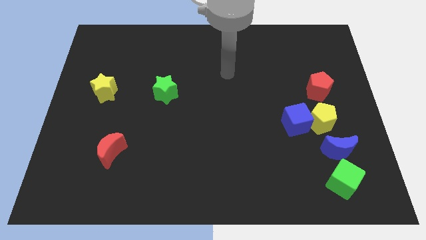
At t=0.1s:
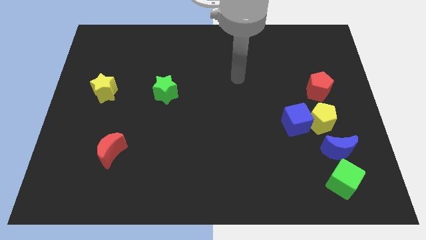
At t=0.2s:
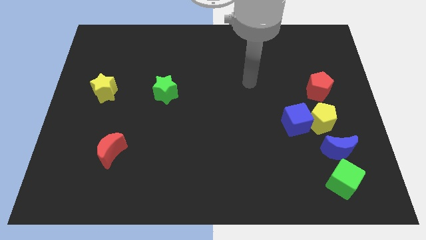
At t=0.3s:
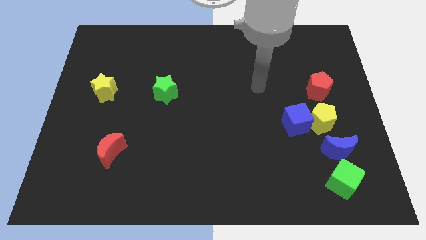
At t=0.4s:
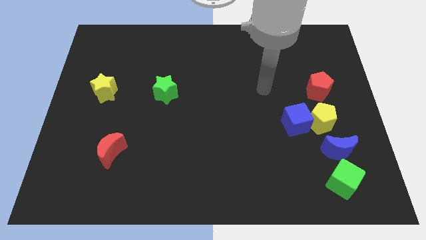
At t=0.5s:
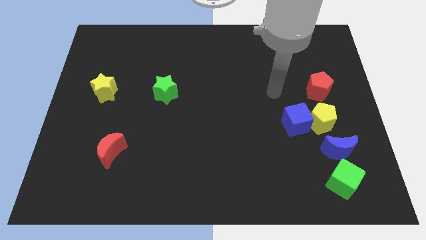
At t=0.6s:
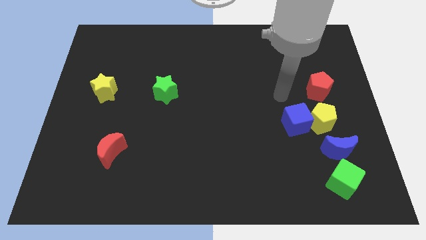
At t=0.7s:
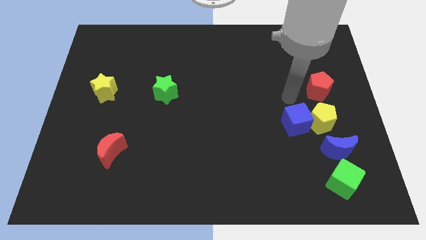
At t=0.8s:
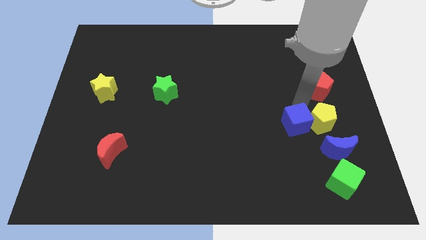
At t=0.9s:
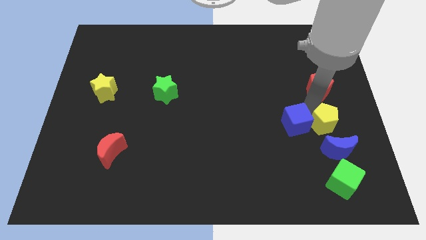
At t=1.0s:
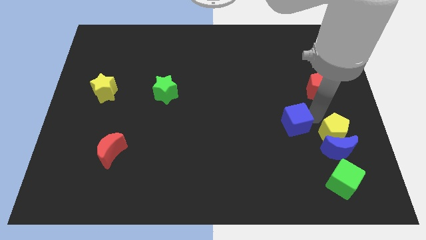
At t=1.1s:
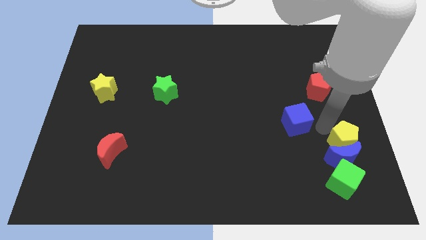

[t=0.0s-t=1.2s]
separate the blue cube from the yellow pentagon

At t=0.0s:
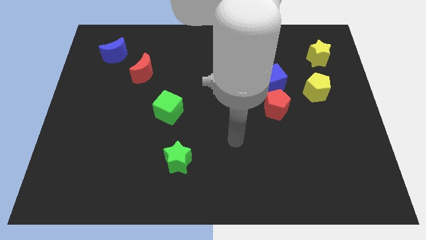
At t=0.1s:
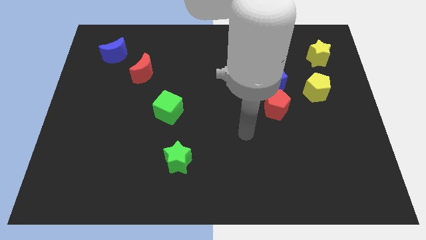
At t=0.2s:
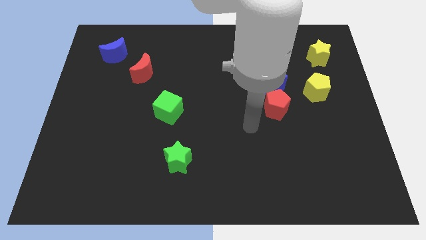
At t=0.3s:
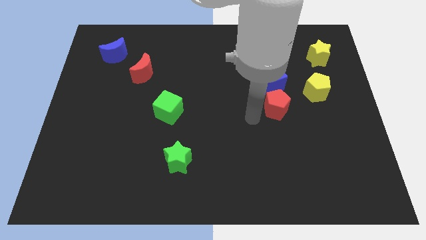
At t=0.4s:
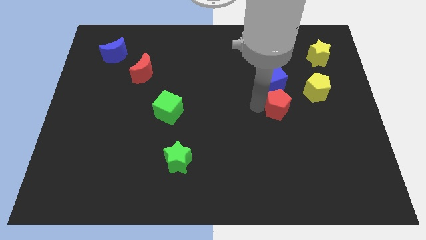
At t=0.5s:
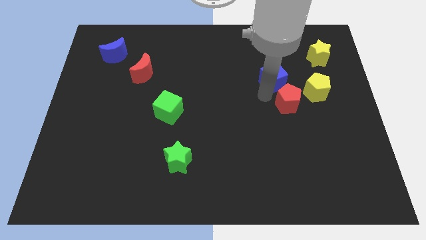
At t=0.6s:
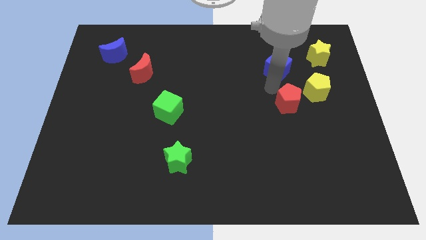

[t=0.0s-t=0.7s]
pull the red pentagon apart from the blue cube

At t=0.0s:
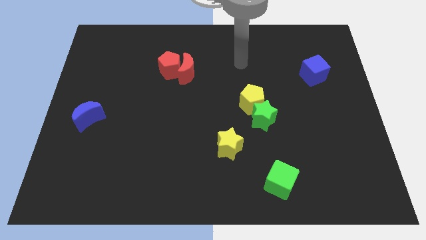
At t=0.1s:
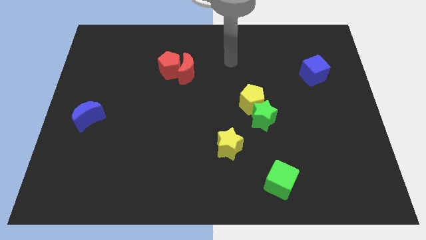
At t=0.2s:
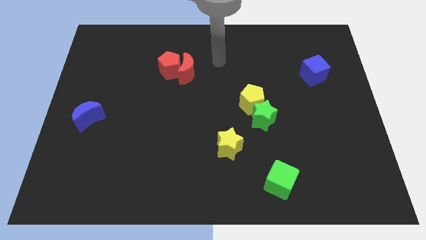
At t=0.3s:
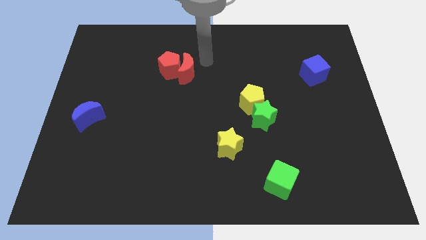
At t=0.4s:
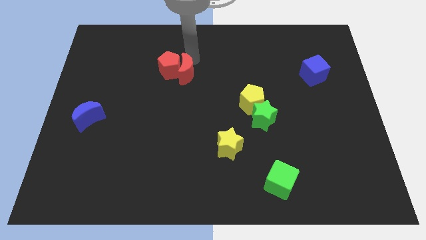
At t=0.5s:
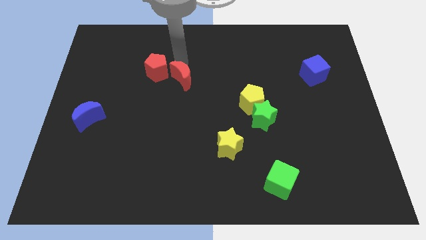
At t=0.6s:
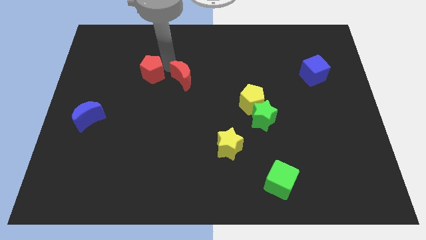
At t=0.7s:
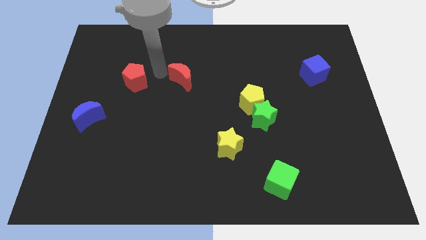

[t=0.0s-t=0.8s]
separate the red moon from the red pentagon

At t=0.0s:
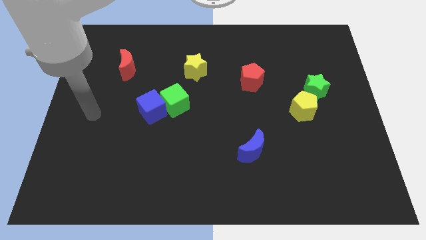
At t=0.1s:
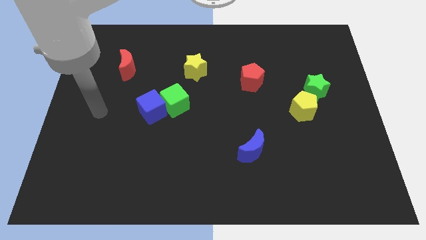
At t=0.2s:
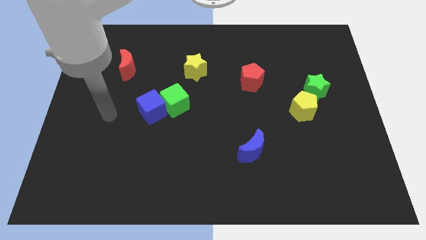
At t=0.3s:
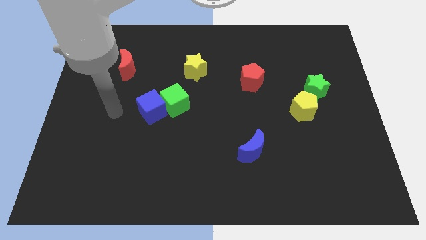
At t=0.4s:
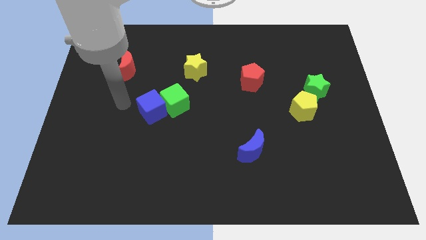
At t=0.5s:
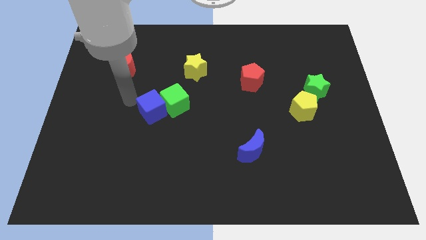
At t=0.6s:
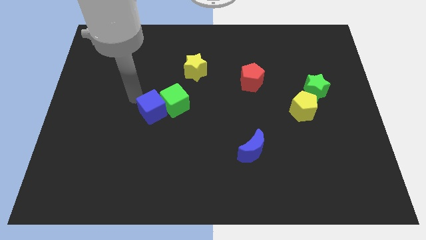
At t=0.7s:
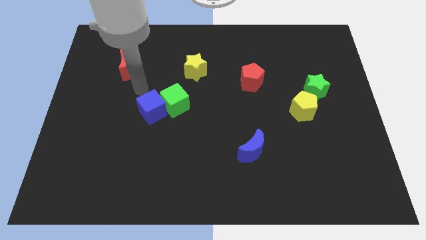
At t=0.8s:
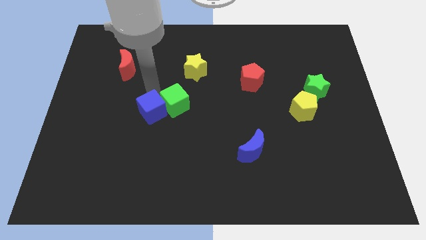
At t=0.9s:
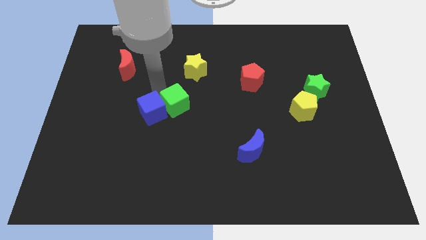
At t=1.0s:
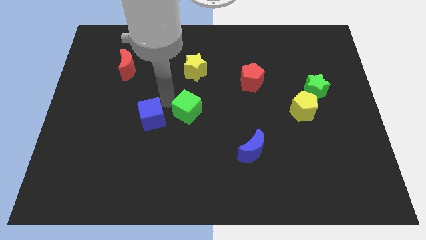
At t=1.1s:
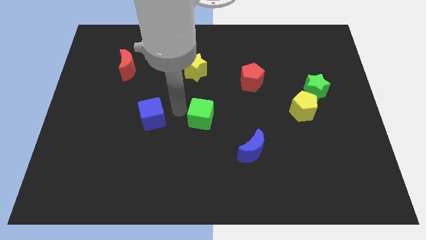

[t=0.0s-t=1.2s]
pull the blue cube apart from the green cube

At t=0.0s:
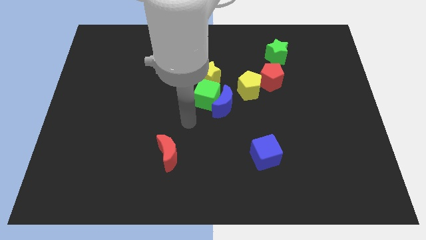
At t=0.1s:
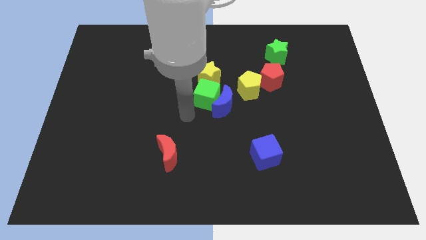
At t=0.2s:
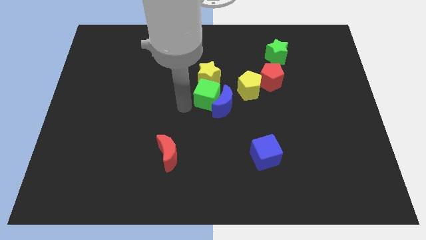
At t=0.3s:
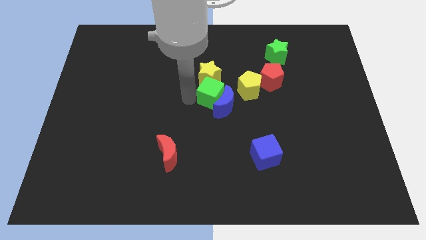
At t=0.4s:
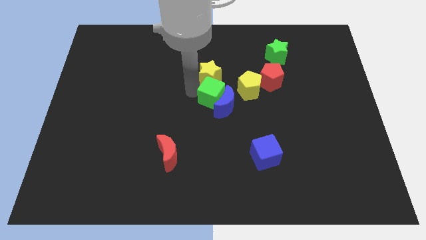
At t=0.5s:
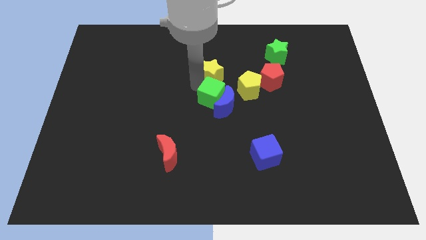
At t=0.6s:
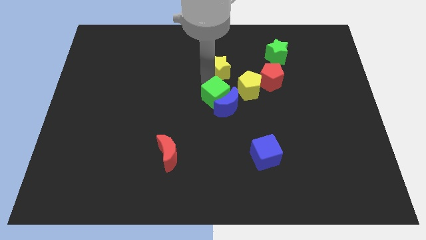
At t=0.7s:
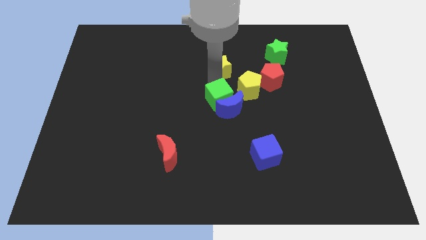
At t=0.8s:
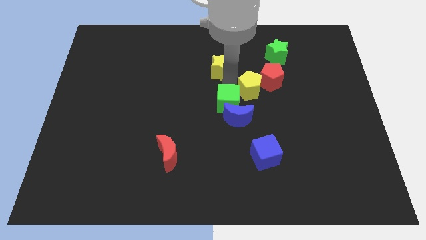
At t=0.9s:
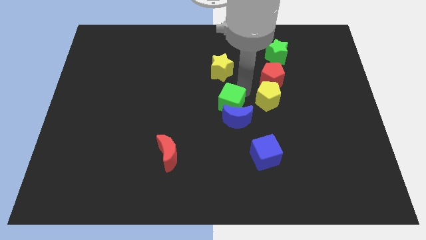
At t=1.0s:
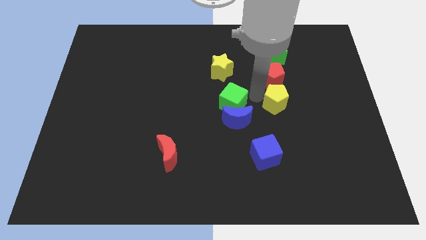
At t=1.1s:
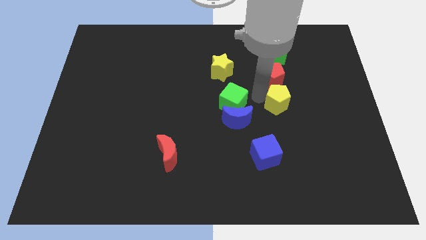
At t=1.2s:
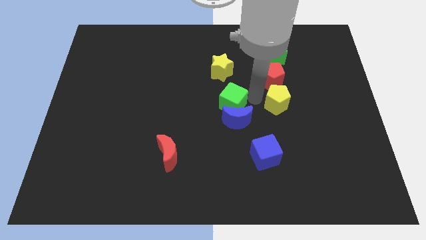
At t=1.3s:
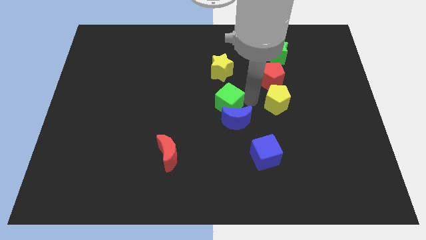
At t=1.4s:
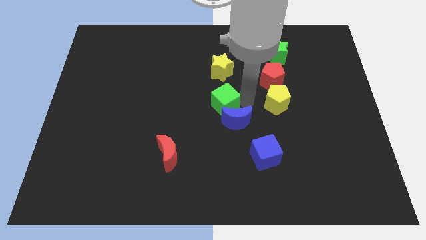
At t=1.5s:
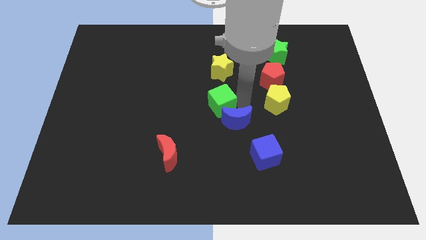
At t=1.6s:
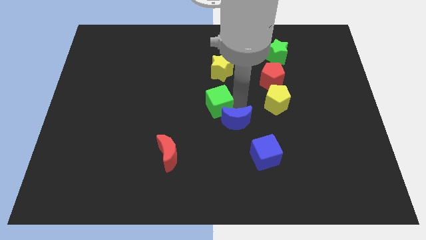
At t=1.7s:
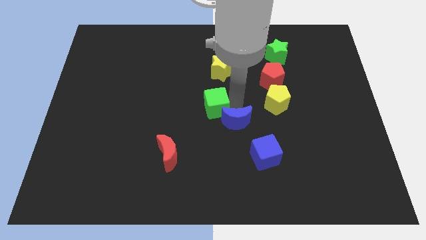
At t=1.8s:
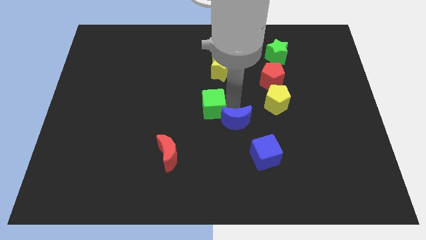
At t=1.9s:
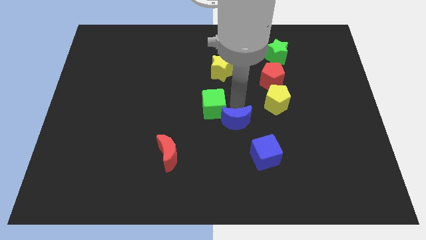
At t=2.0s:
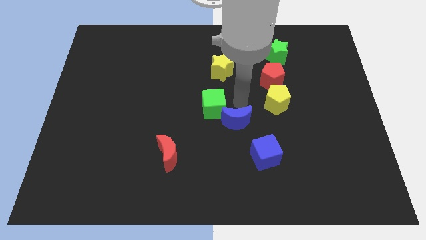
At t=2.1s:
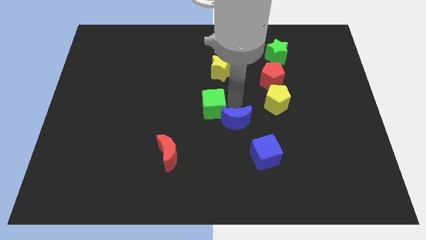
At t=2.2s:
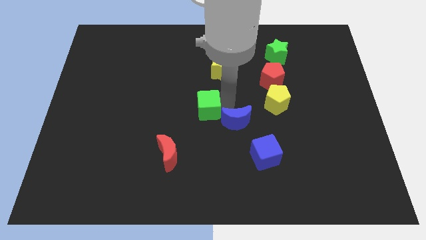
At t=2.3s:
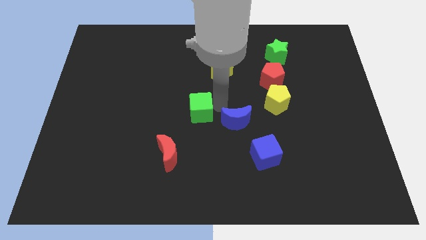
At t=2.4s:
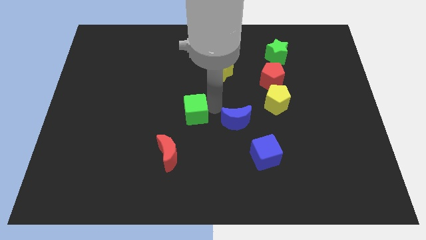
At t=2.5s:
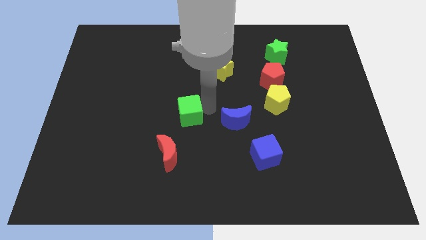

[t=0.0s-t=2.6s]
pull the green cube apart from the blue moon and yellow star

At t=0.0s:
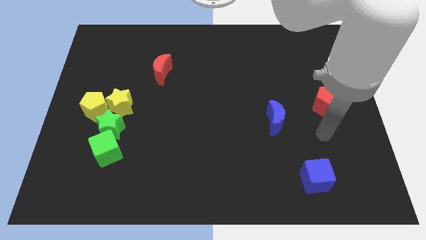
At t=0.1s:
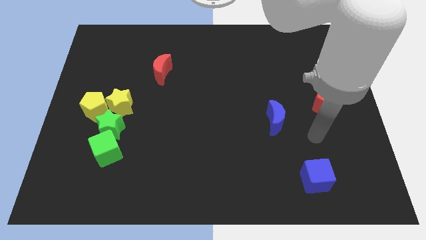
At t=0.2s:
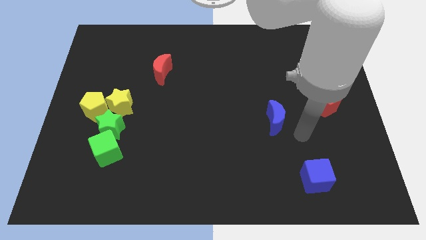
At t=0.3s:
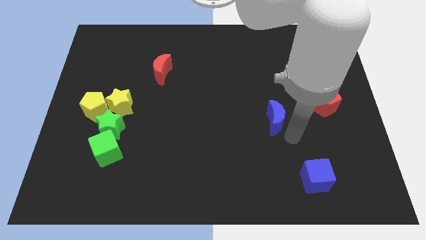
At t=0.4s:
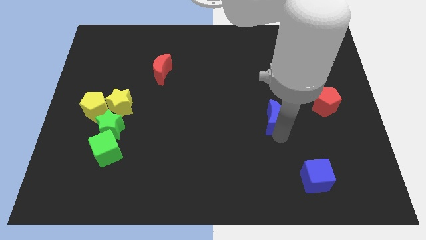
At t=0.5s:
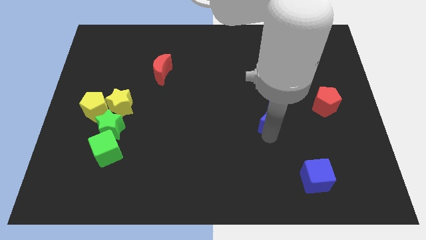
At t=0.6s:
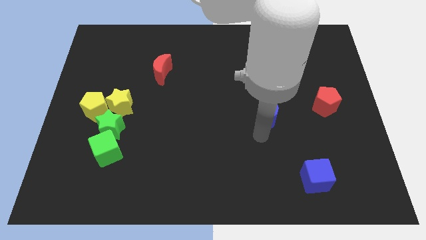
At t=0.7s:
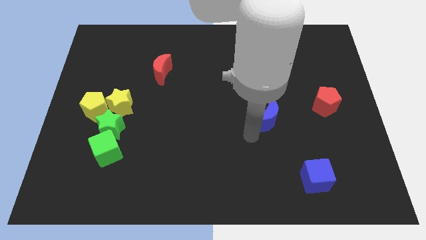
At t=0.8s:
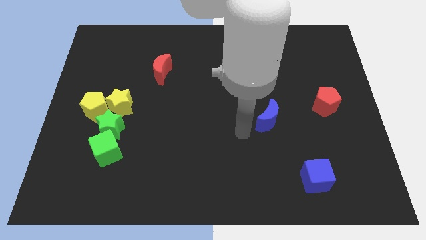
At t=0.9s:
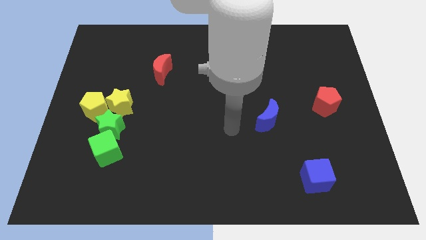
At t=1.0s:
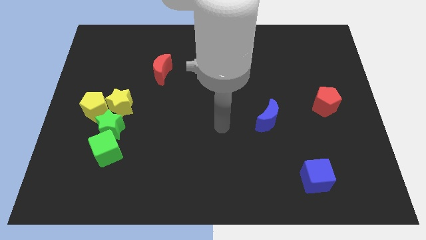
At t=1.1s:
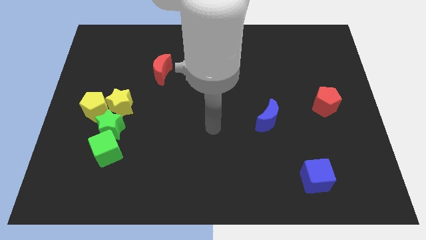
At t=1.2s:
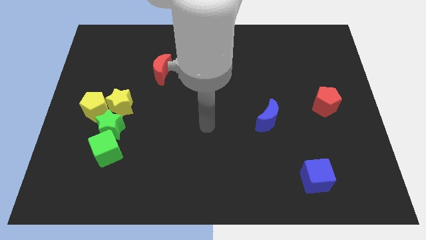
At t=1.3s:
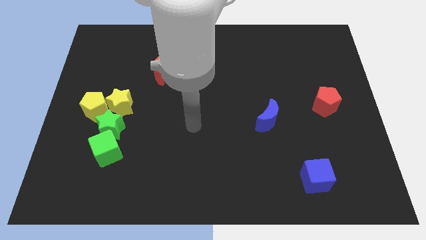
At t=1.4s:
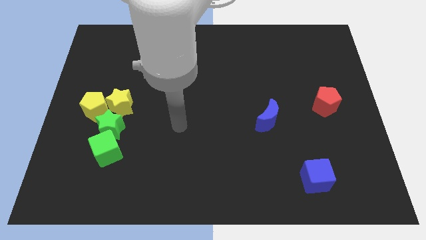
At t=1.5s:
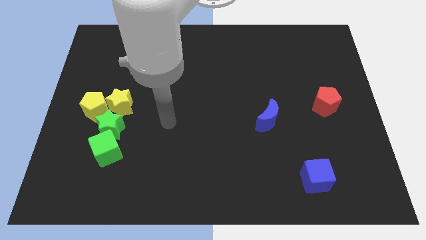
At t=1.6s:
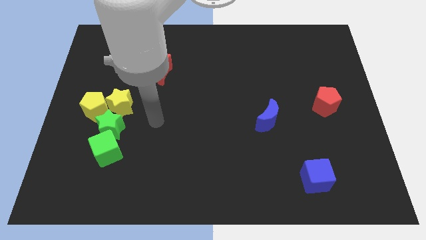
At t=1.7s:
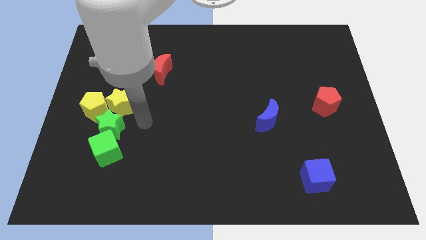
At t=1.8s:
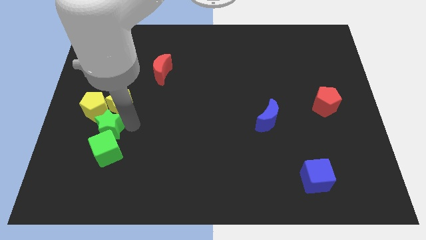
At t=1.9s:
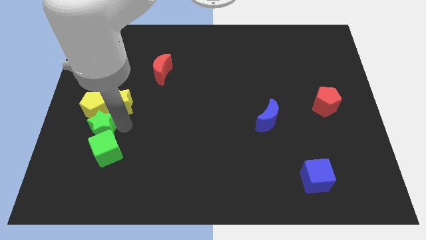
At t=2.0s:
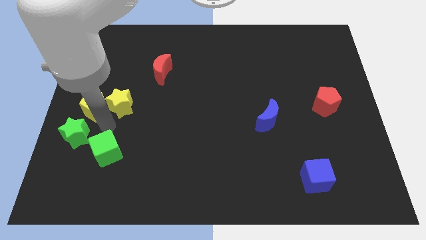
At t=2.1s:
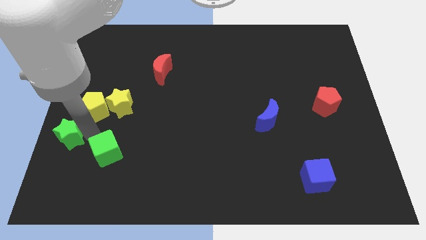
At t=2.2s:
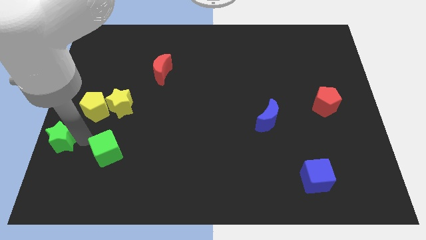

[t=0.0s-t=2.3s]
pull the green cube apart from the green star

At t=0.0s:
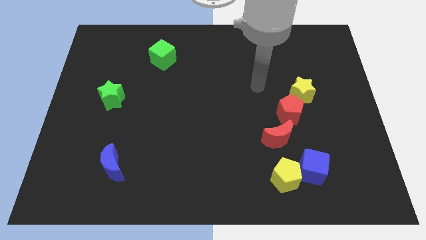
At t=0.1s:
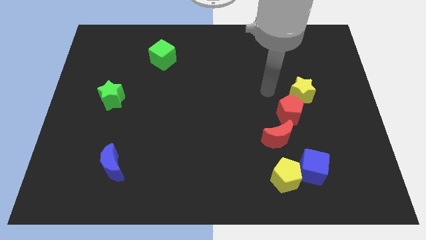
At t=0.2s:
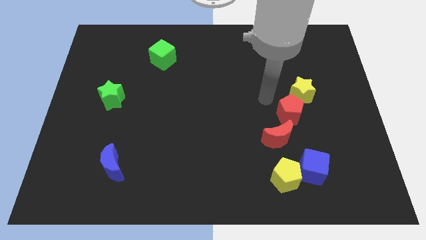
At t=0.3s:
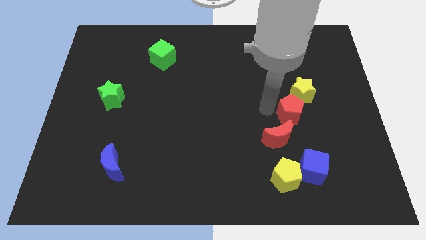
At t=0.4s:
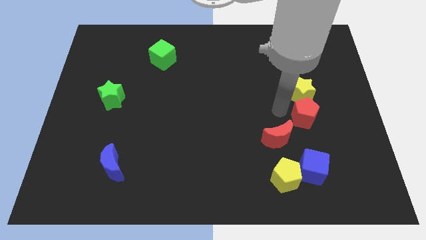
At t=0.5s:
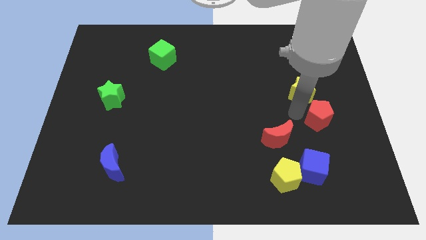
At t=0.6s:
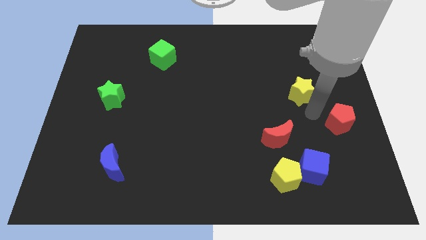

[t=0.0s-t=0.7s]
pull the yellow star apart from the red pentagon
